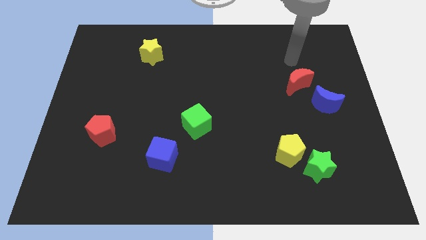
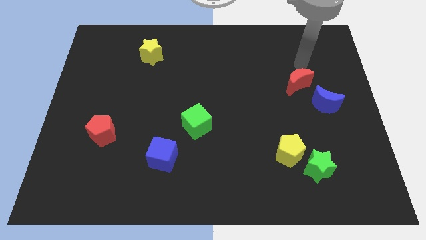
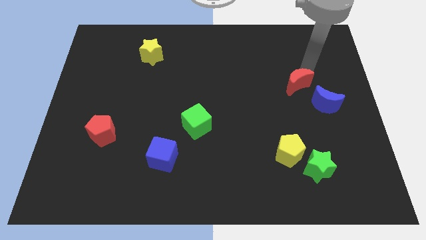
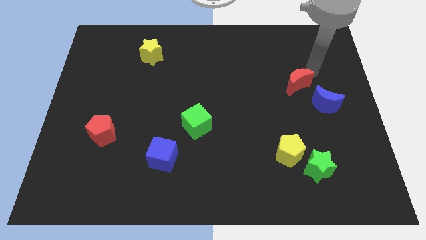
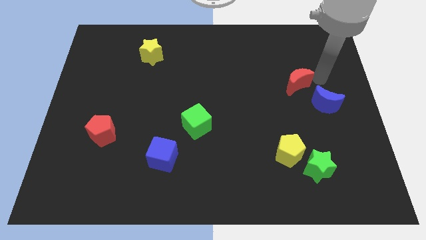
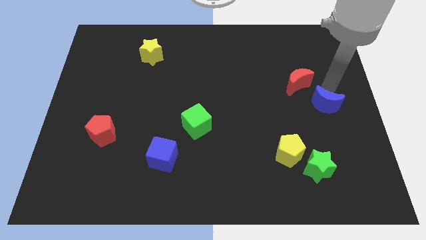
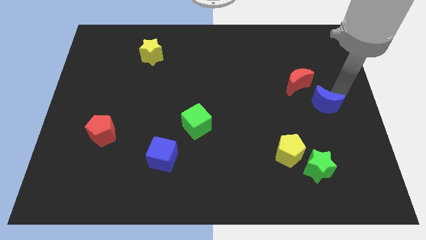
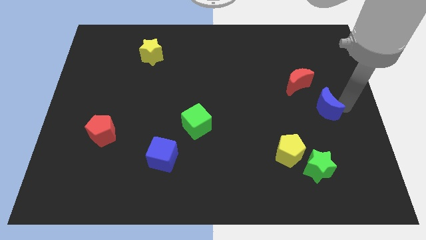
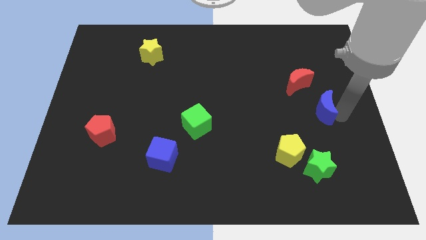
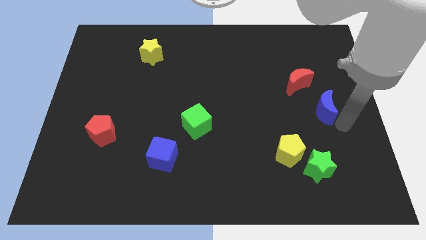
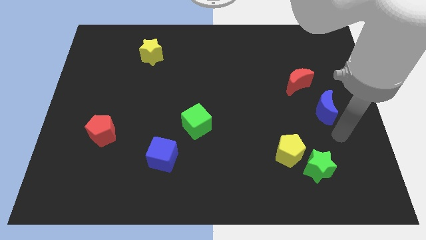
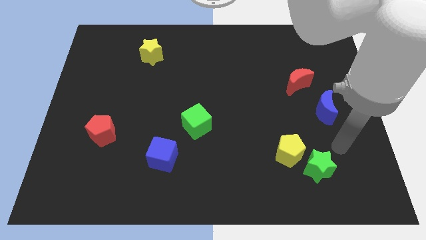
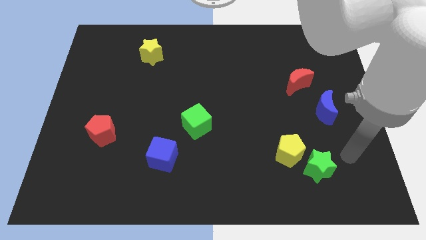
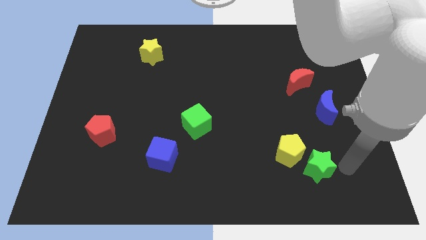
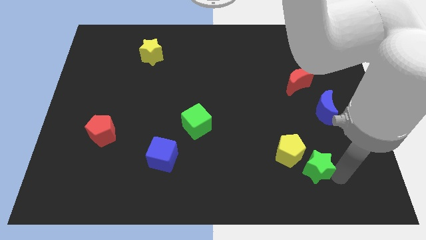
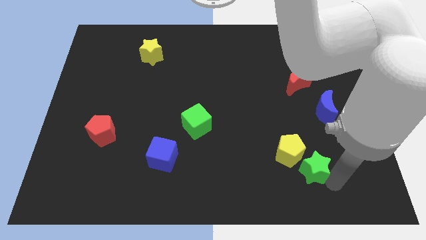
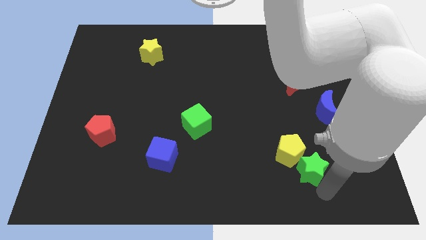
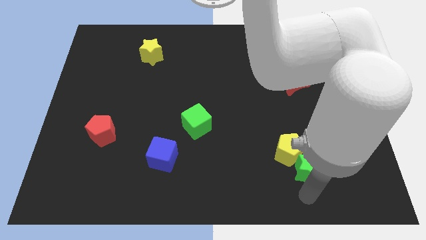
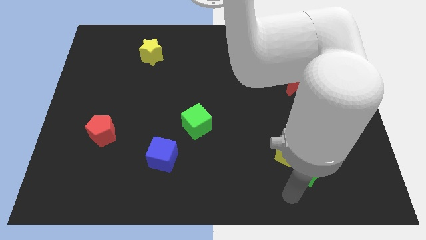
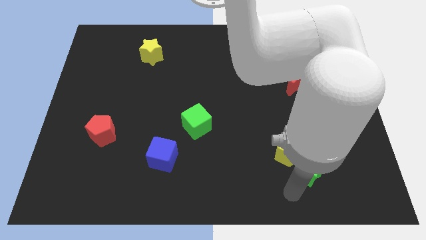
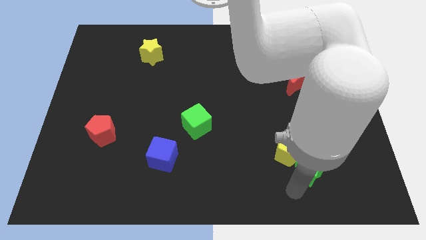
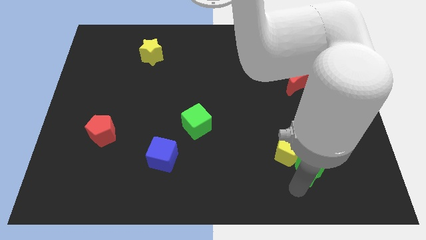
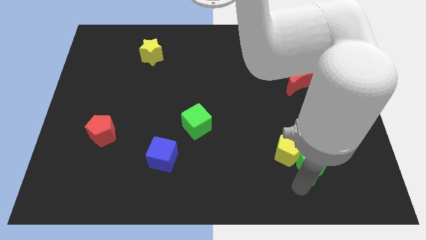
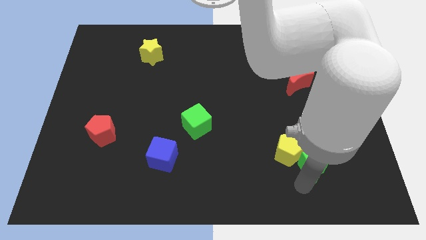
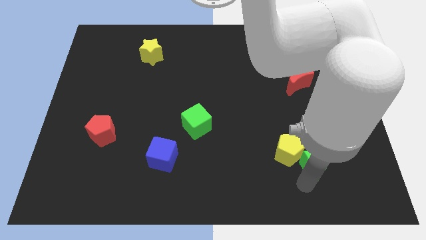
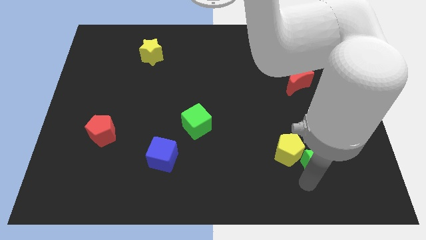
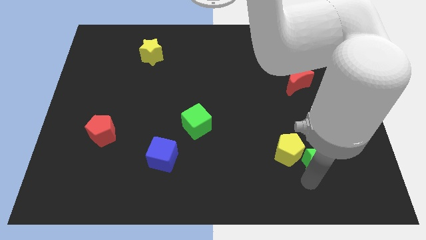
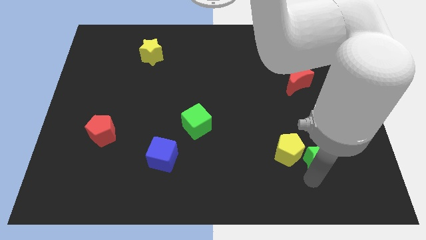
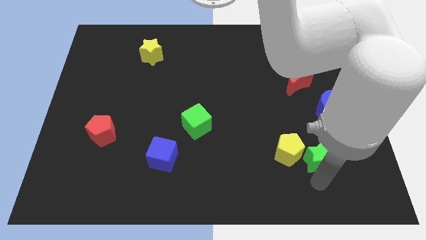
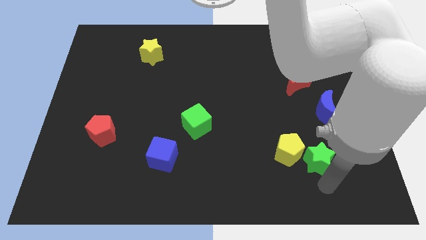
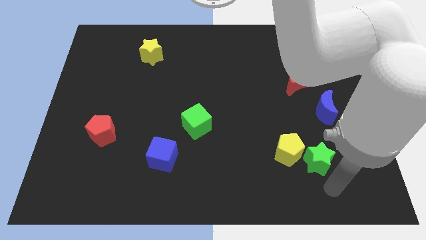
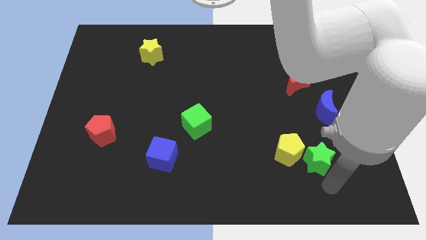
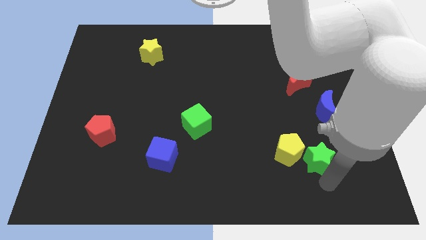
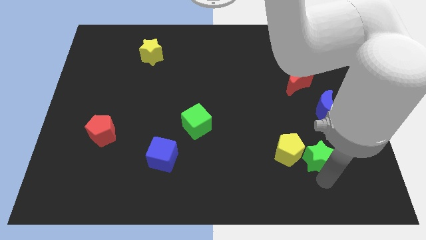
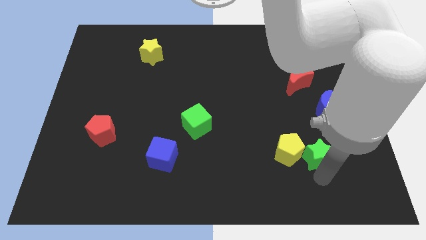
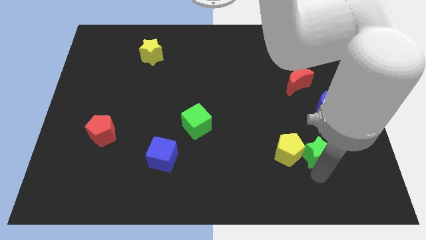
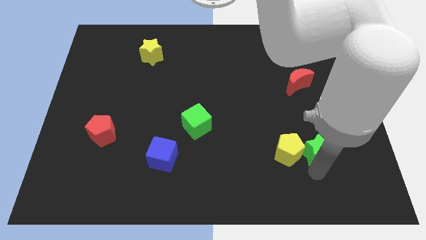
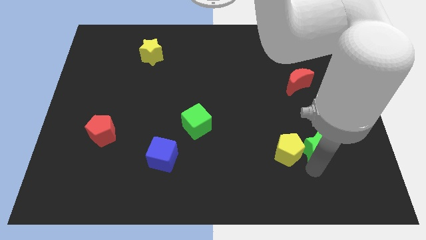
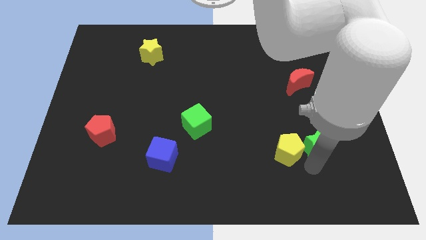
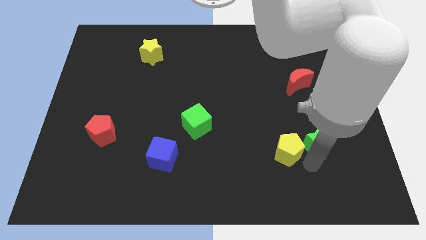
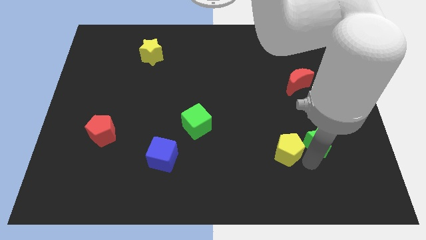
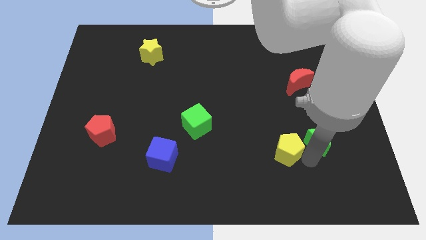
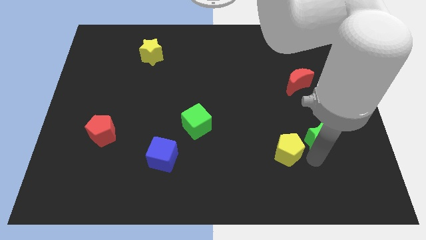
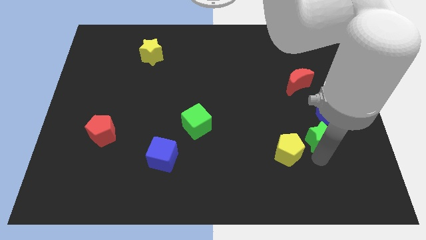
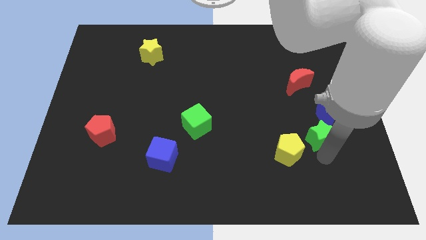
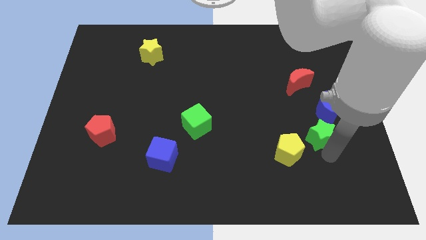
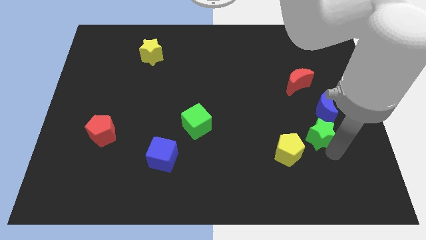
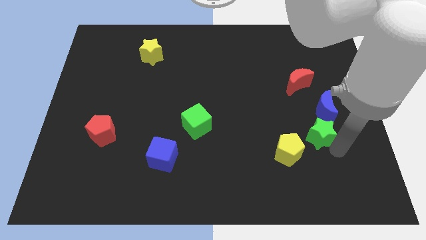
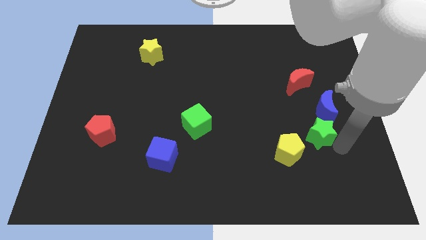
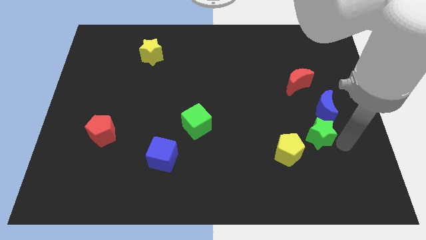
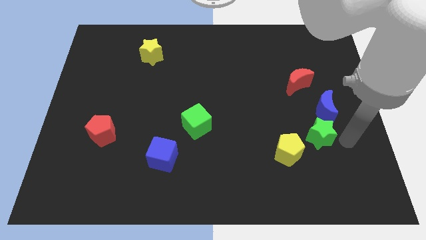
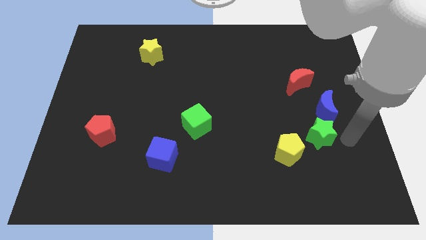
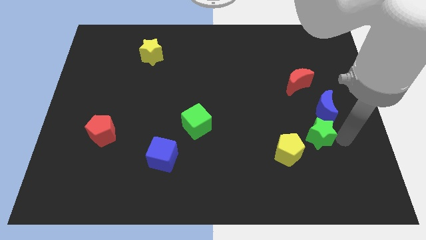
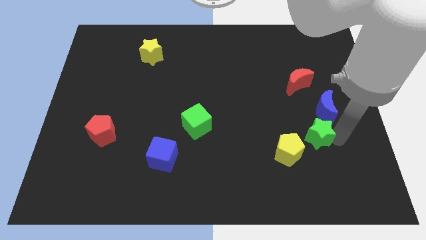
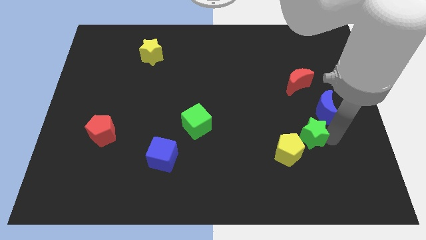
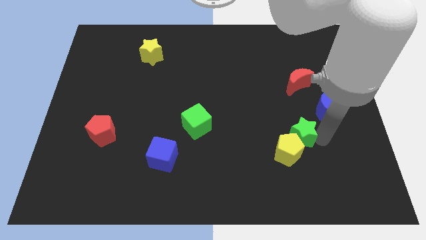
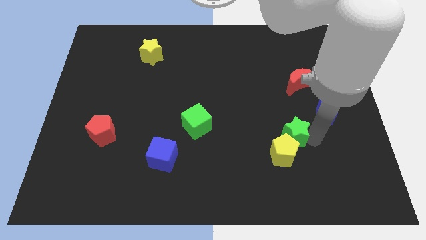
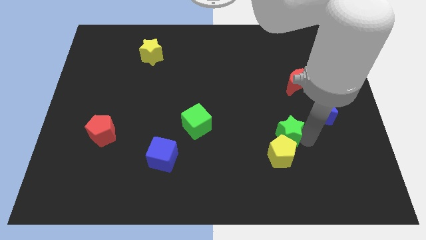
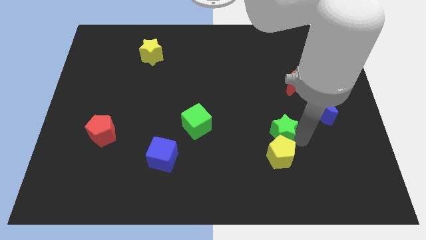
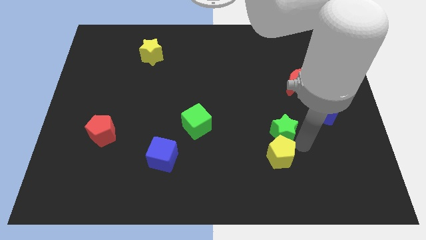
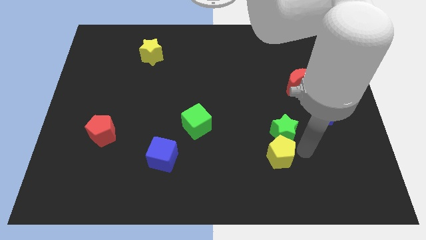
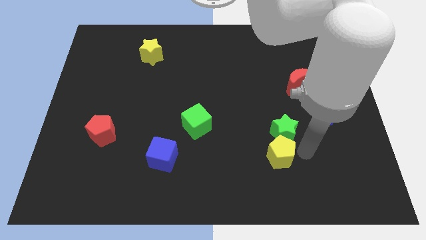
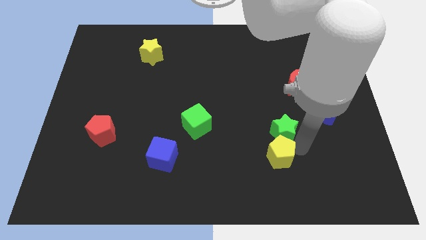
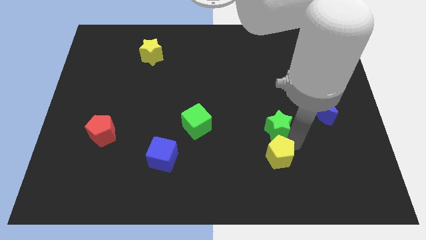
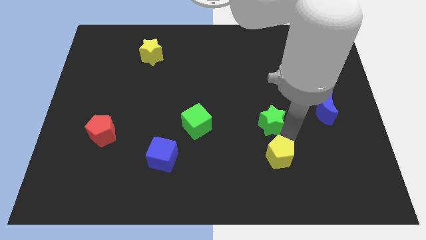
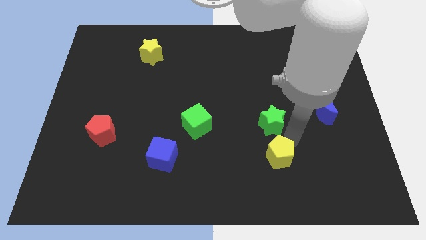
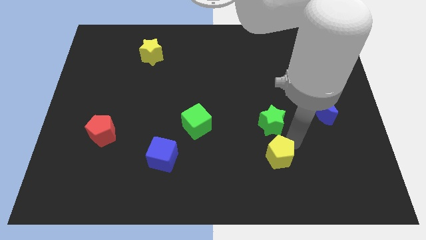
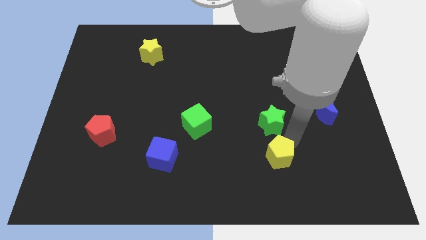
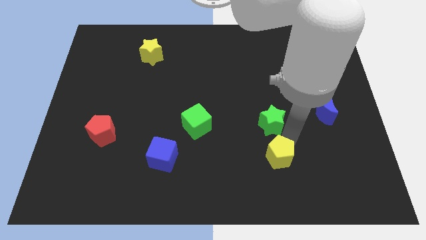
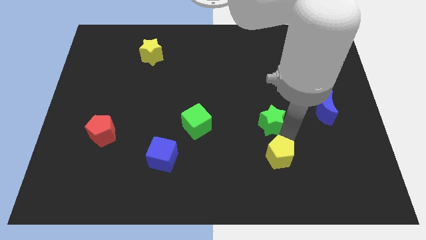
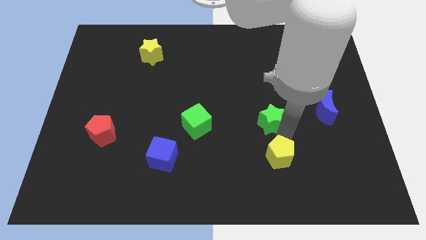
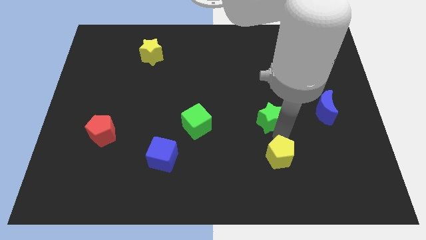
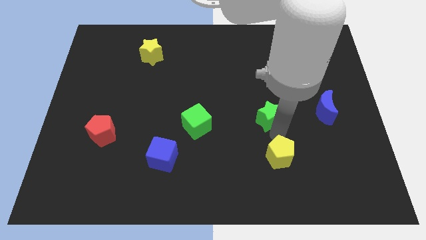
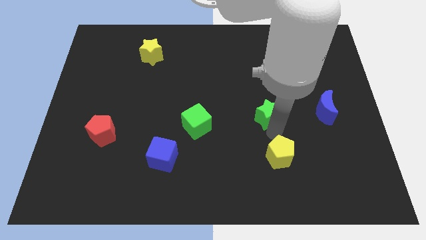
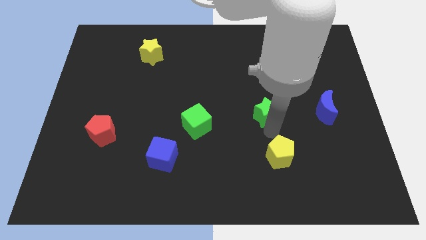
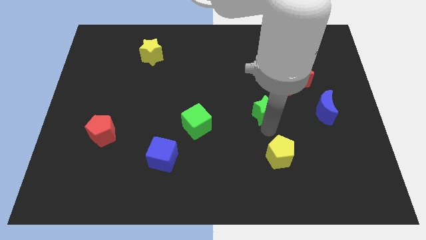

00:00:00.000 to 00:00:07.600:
move the green star to the middle of the board
